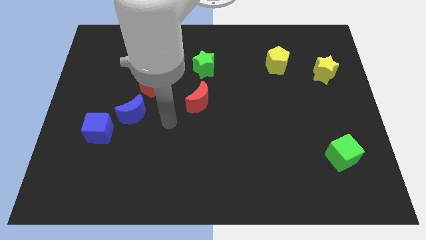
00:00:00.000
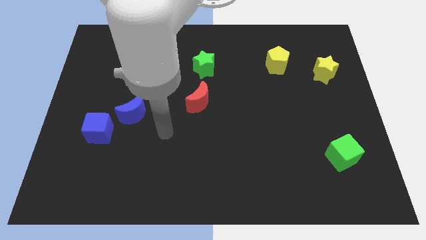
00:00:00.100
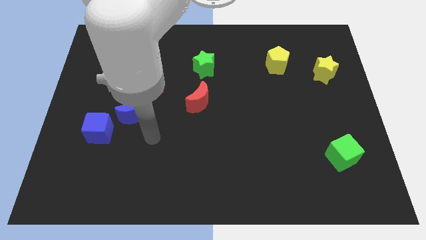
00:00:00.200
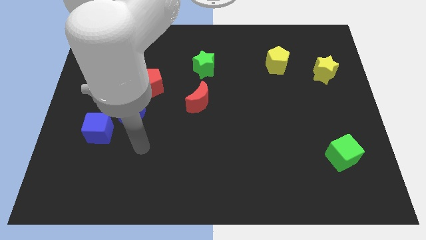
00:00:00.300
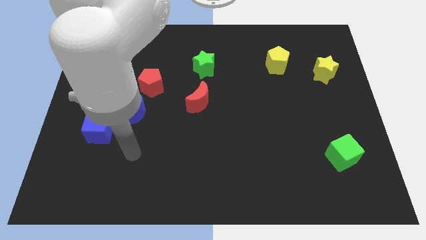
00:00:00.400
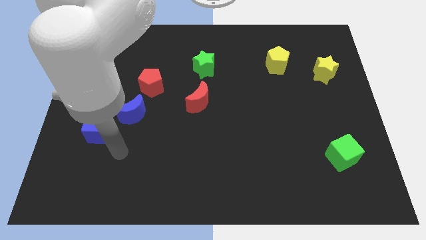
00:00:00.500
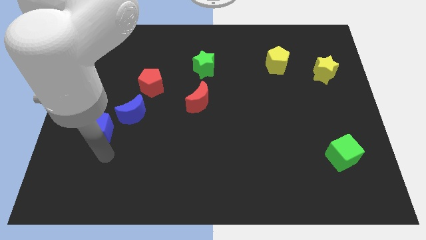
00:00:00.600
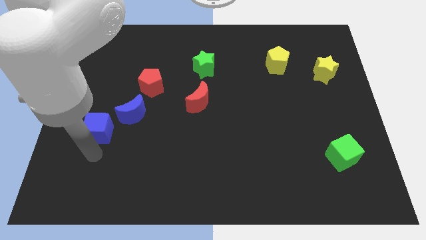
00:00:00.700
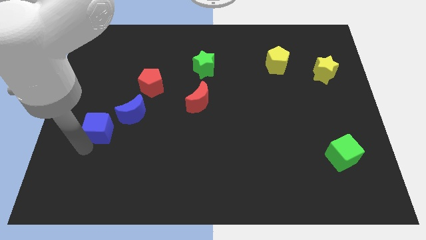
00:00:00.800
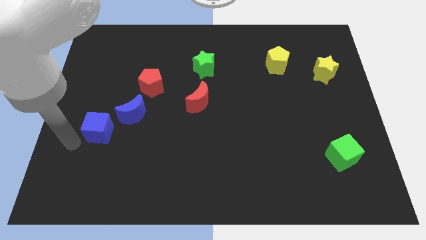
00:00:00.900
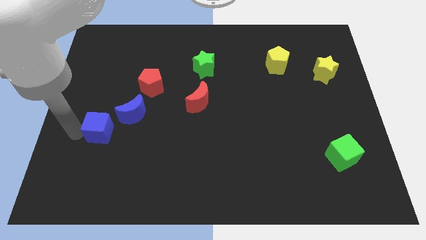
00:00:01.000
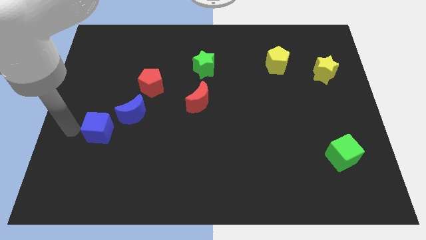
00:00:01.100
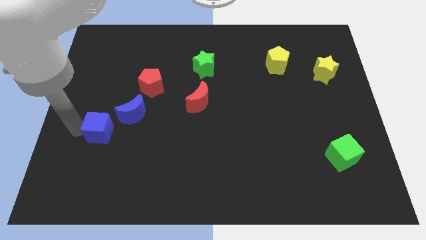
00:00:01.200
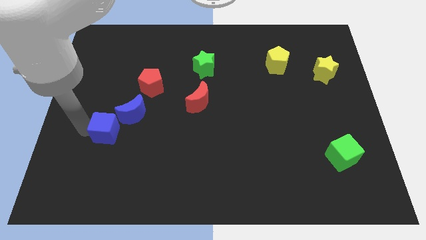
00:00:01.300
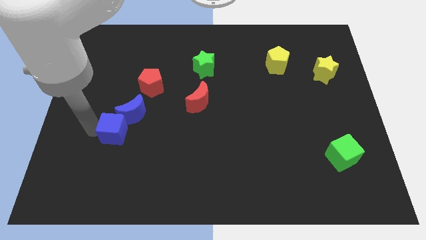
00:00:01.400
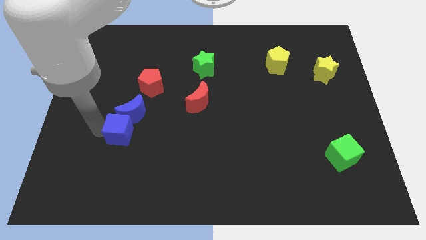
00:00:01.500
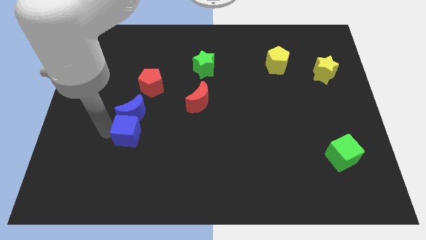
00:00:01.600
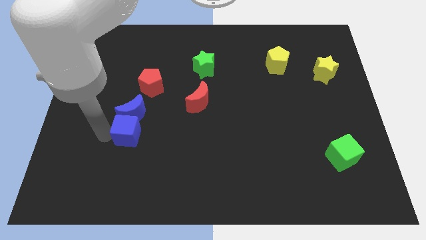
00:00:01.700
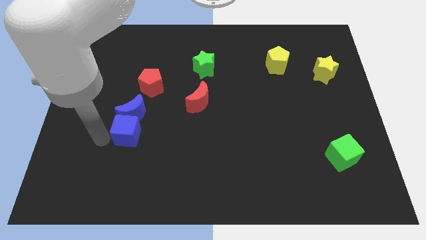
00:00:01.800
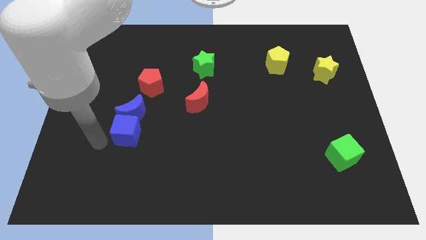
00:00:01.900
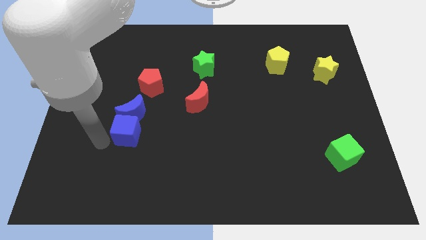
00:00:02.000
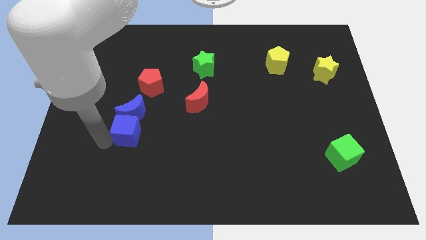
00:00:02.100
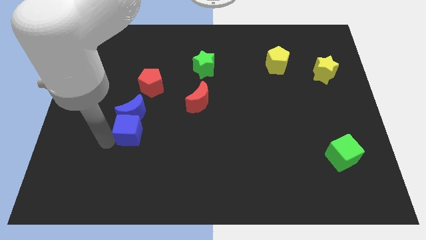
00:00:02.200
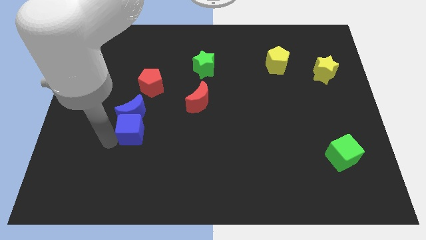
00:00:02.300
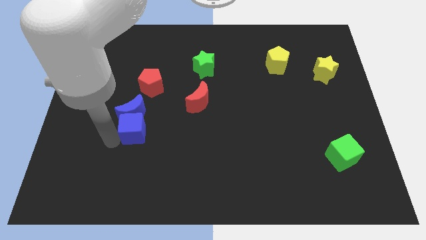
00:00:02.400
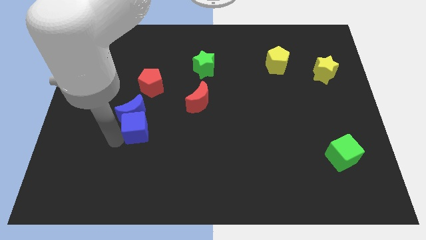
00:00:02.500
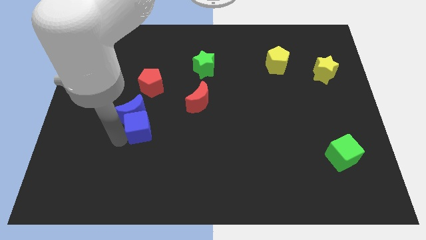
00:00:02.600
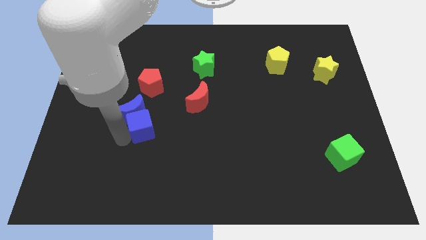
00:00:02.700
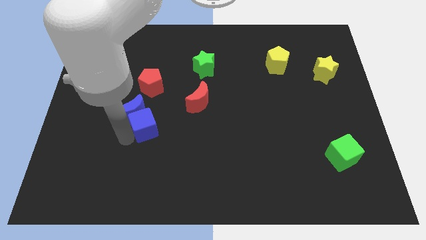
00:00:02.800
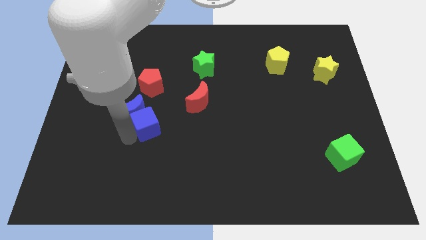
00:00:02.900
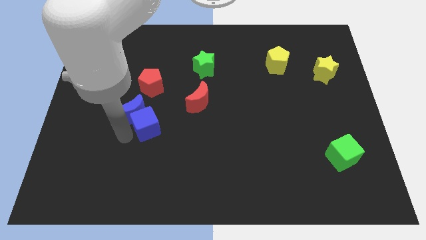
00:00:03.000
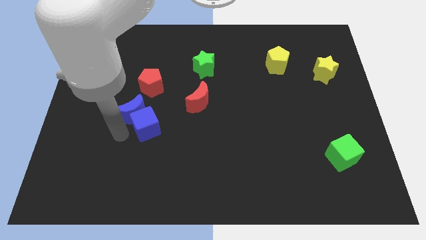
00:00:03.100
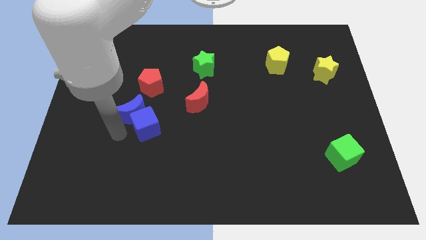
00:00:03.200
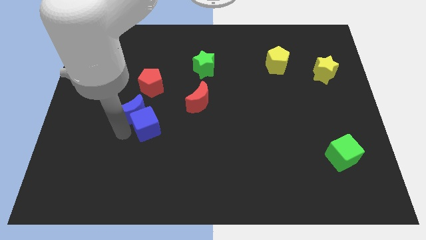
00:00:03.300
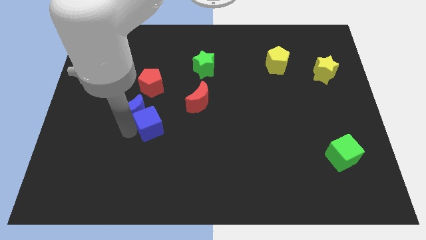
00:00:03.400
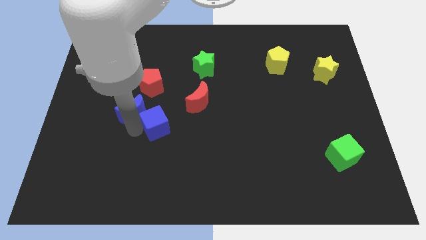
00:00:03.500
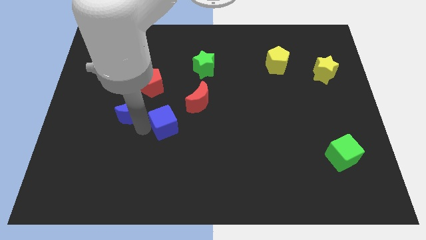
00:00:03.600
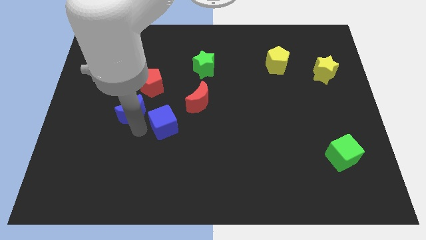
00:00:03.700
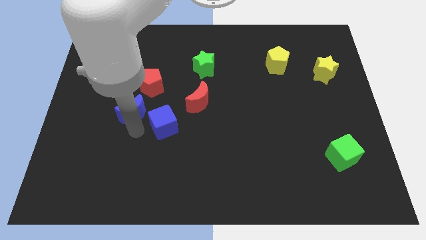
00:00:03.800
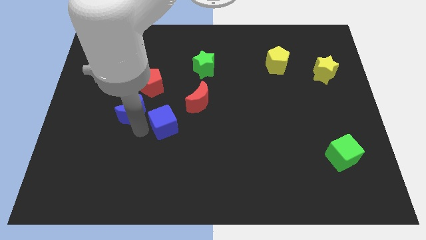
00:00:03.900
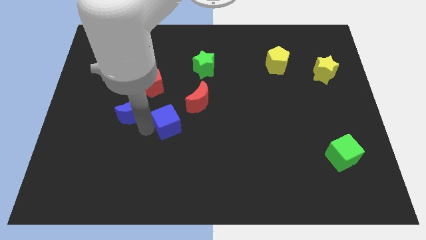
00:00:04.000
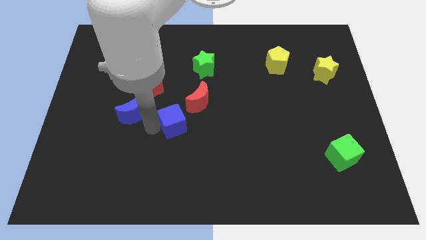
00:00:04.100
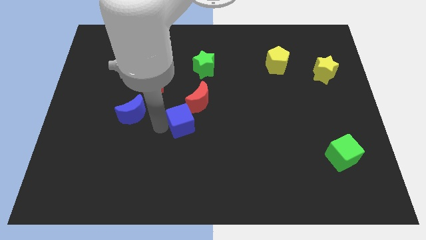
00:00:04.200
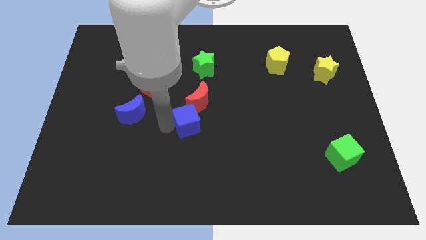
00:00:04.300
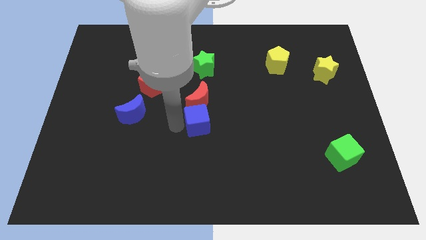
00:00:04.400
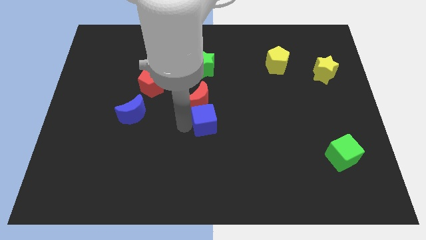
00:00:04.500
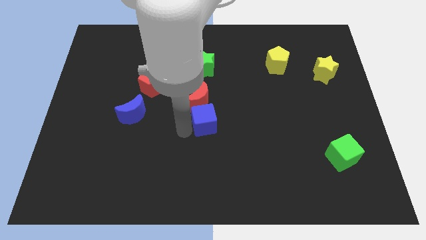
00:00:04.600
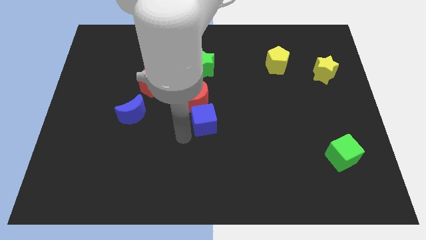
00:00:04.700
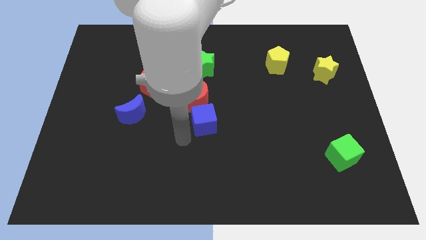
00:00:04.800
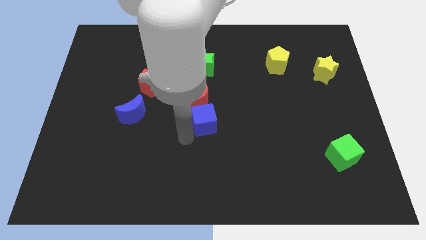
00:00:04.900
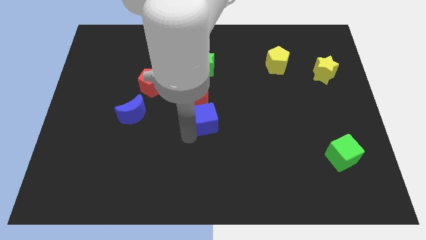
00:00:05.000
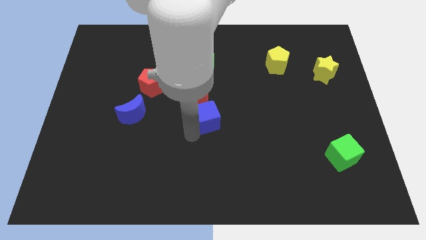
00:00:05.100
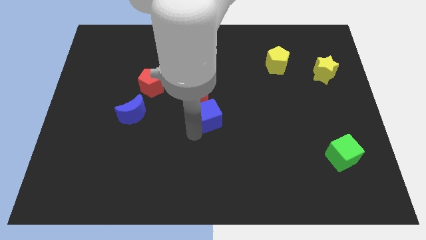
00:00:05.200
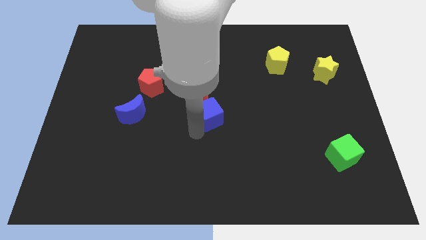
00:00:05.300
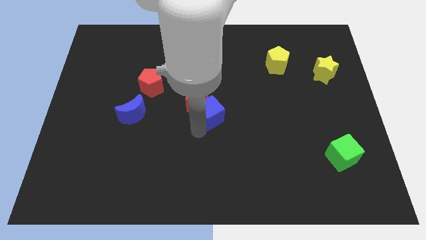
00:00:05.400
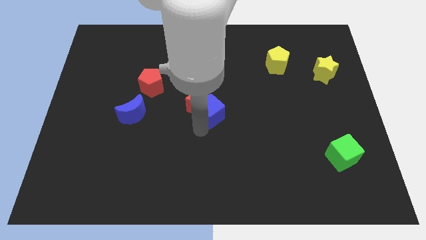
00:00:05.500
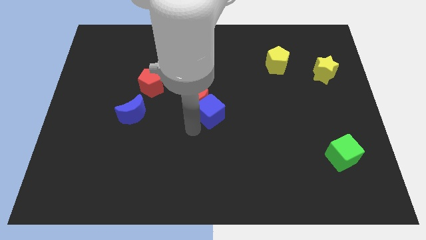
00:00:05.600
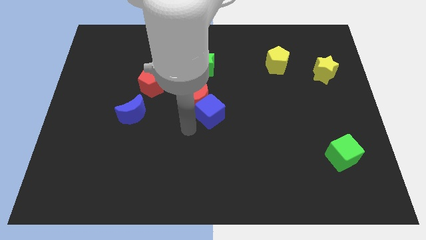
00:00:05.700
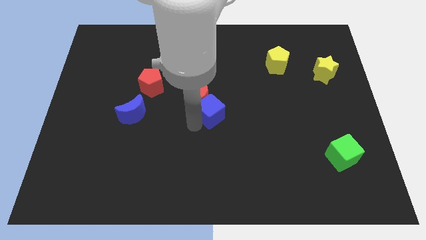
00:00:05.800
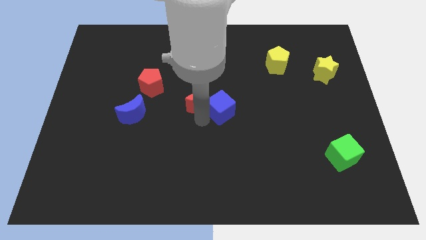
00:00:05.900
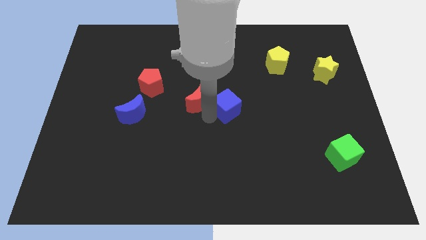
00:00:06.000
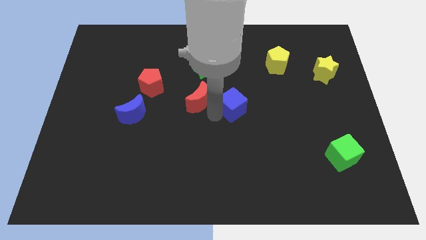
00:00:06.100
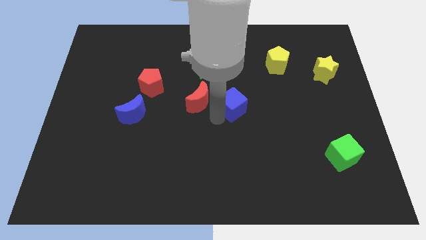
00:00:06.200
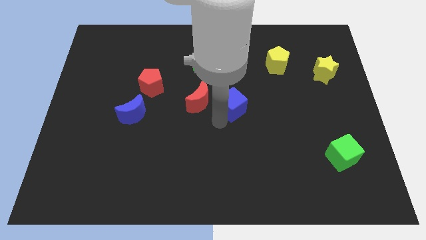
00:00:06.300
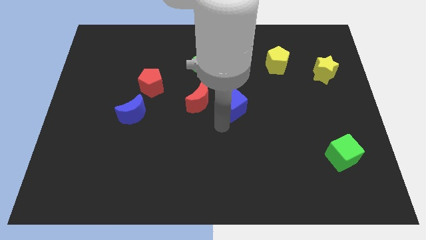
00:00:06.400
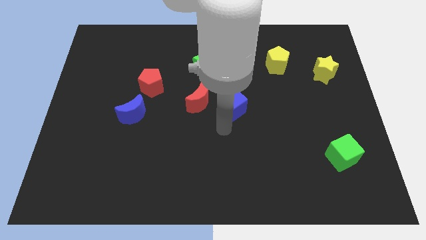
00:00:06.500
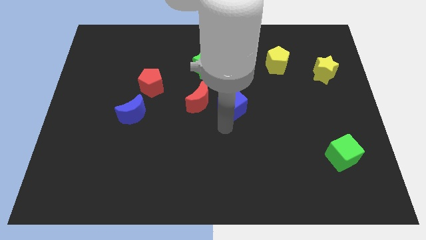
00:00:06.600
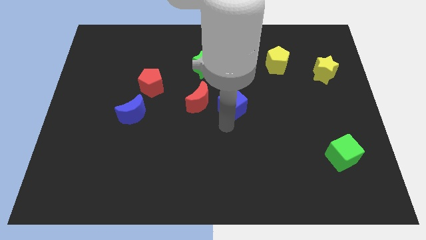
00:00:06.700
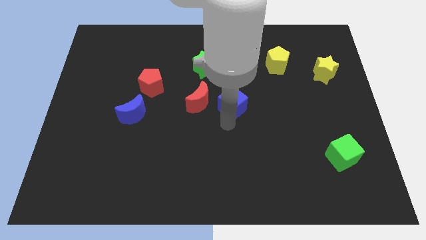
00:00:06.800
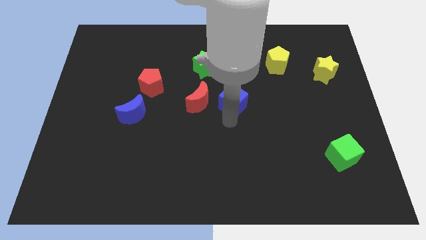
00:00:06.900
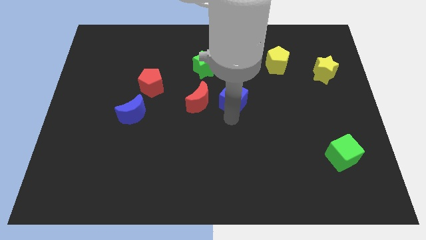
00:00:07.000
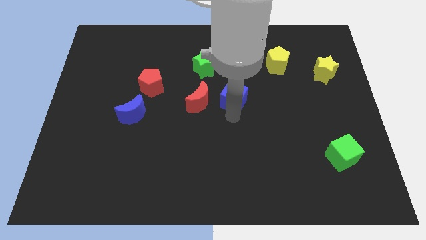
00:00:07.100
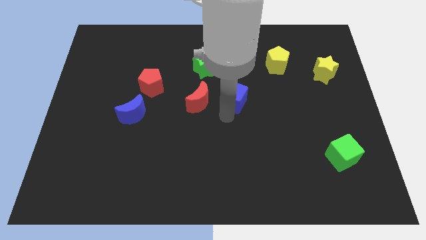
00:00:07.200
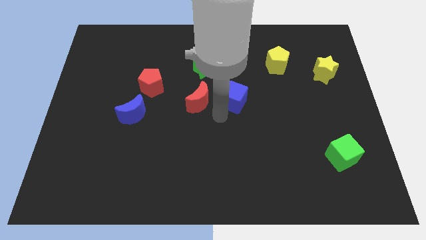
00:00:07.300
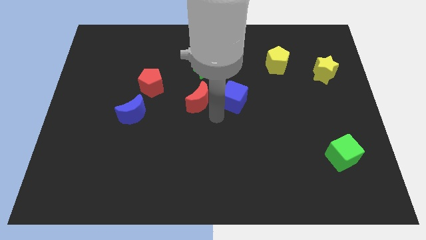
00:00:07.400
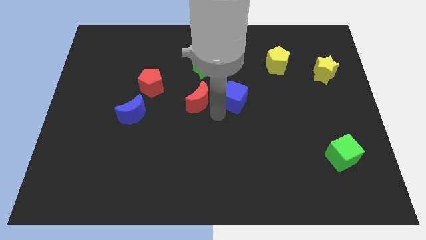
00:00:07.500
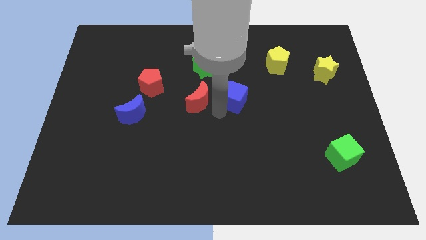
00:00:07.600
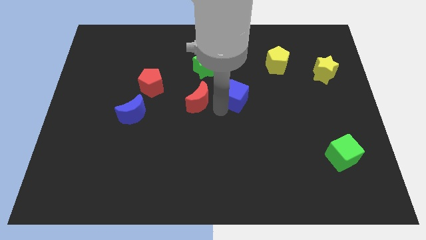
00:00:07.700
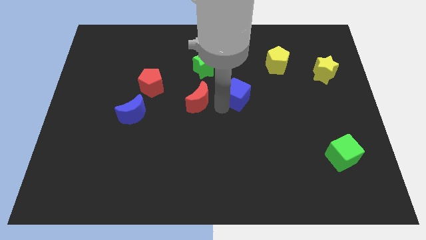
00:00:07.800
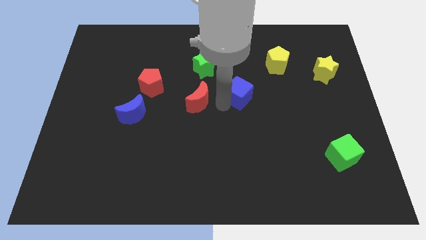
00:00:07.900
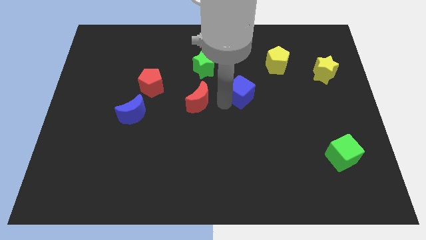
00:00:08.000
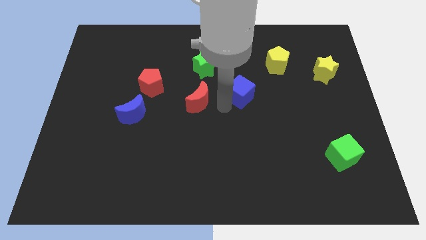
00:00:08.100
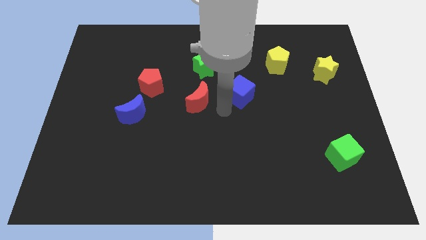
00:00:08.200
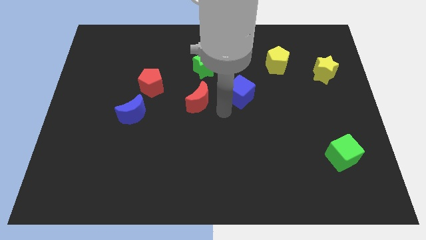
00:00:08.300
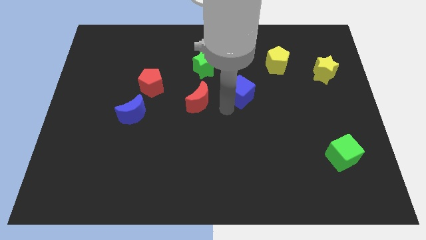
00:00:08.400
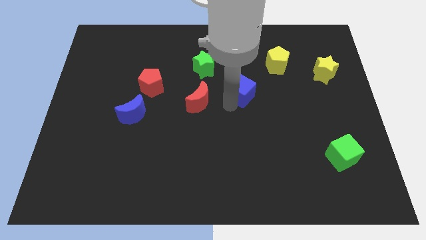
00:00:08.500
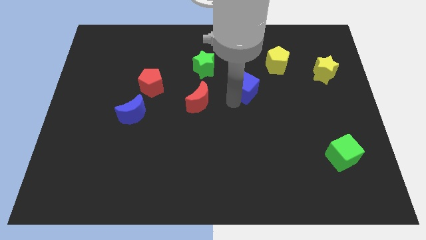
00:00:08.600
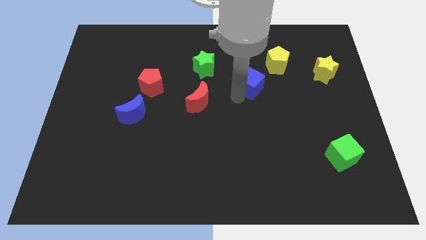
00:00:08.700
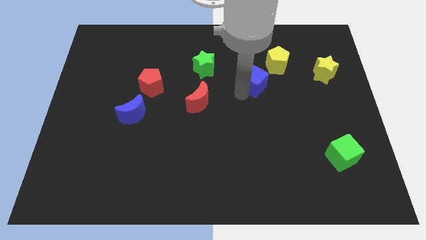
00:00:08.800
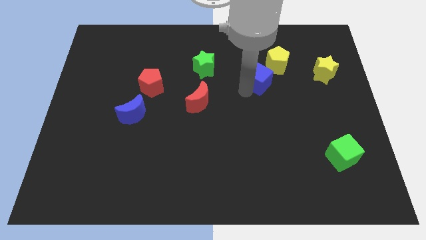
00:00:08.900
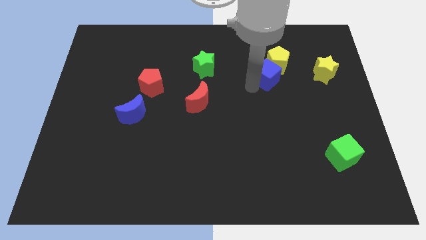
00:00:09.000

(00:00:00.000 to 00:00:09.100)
put the blue cube next to the yellow pentagon
